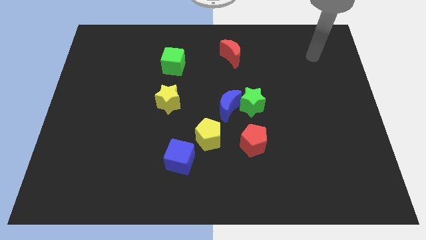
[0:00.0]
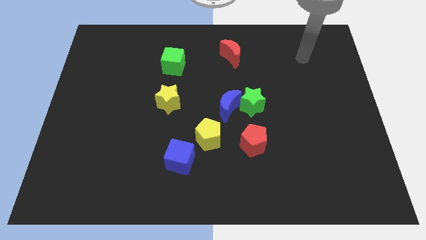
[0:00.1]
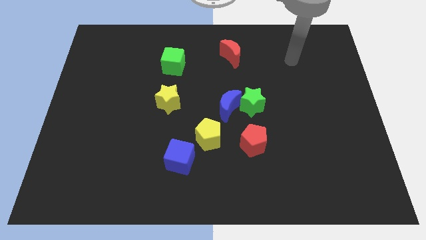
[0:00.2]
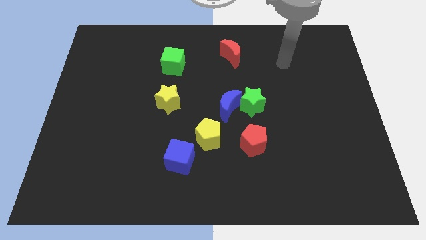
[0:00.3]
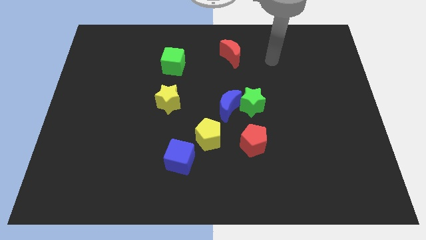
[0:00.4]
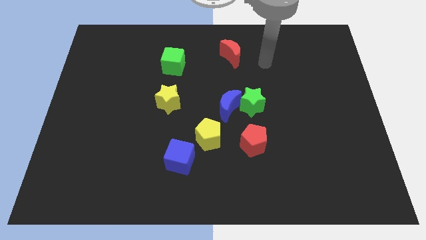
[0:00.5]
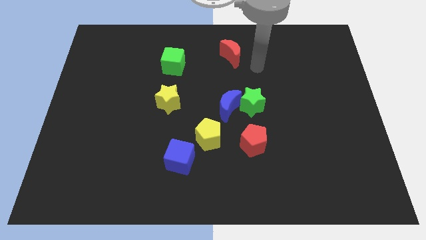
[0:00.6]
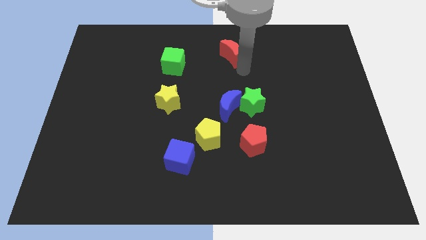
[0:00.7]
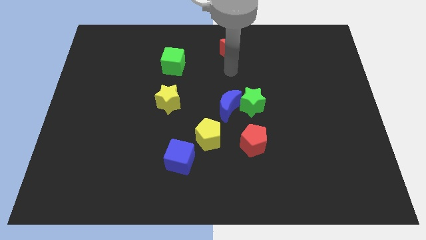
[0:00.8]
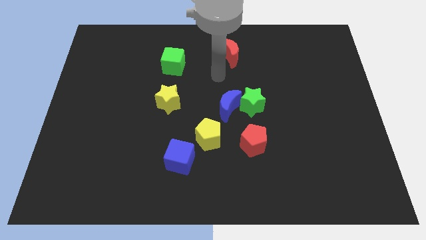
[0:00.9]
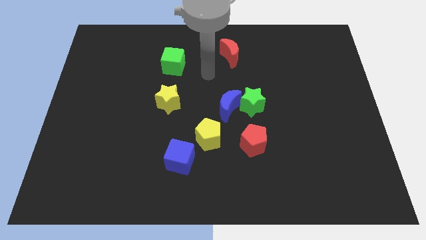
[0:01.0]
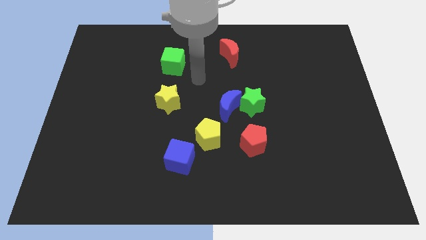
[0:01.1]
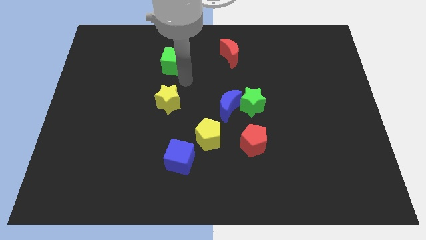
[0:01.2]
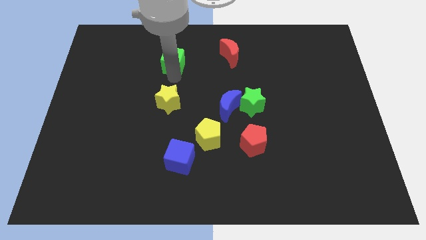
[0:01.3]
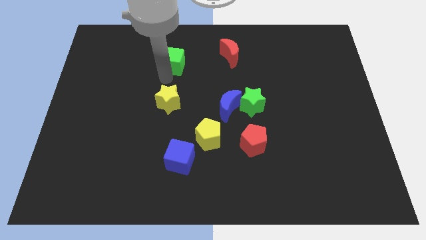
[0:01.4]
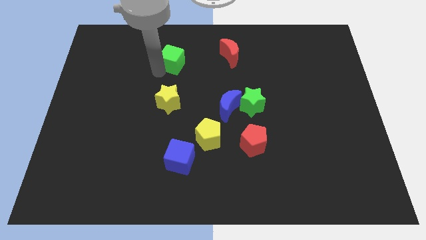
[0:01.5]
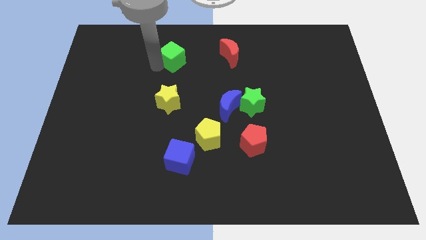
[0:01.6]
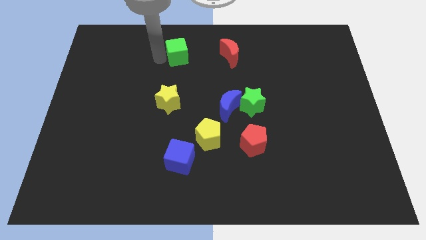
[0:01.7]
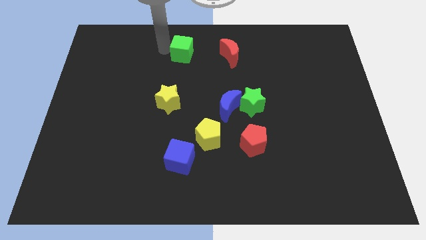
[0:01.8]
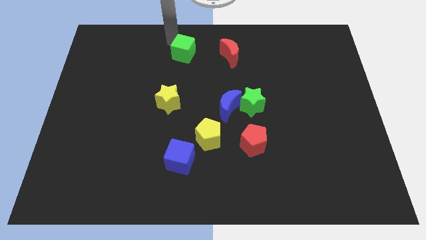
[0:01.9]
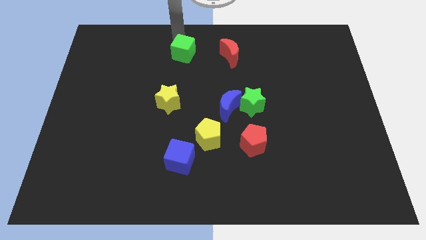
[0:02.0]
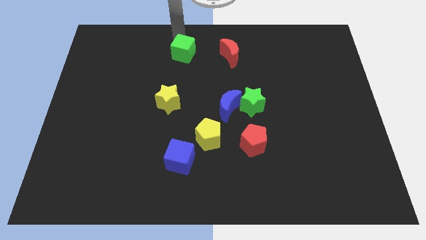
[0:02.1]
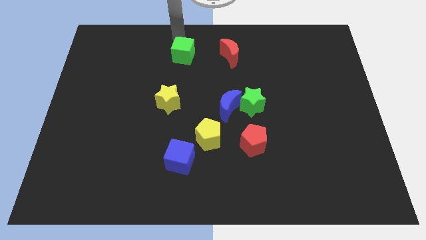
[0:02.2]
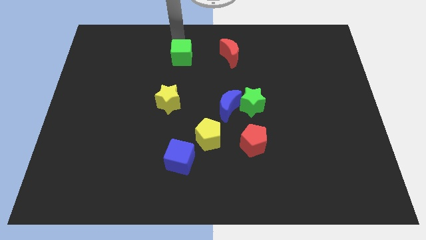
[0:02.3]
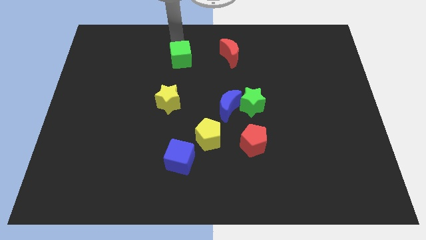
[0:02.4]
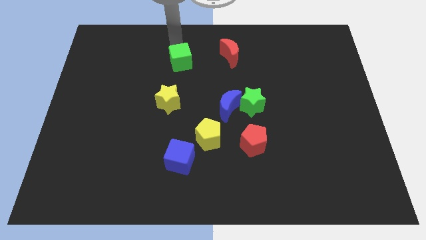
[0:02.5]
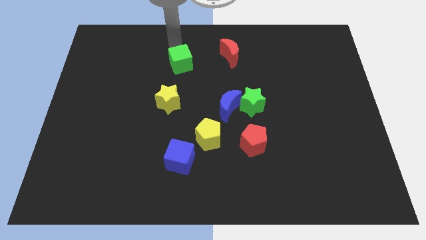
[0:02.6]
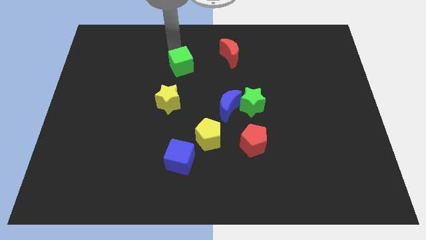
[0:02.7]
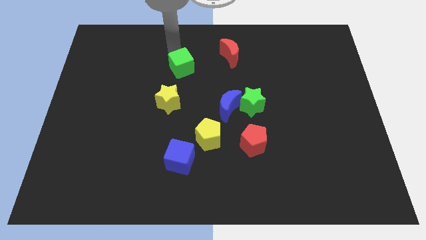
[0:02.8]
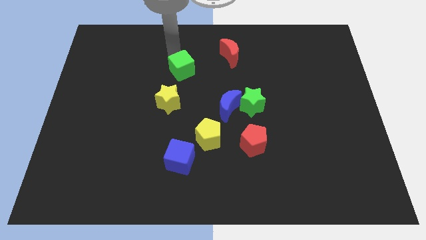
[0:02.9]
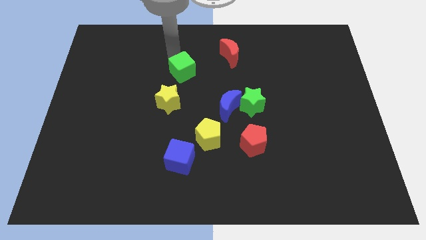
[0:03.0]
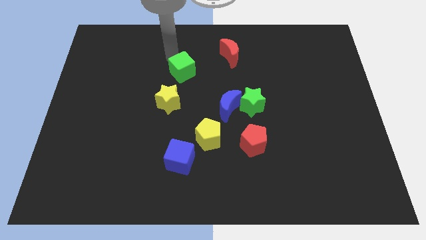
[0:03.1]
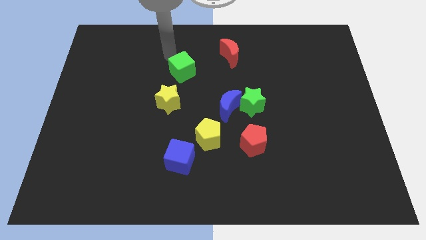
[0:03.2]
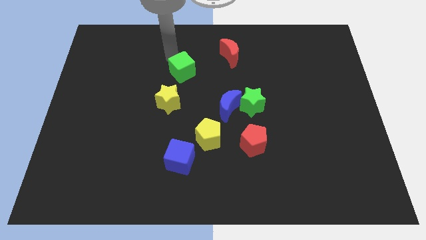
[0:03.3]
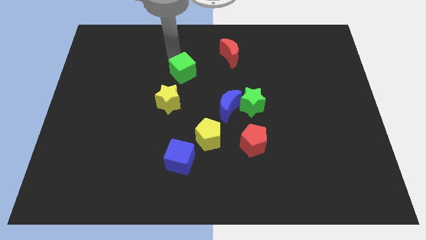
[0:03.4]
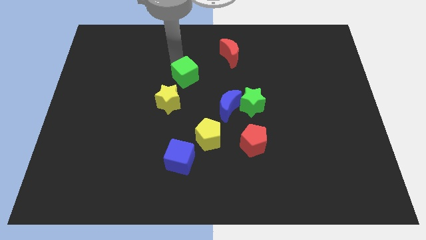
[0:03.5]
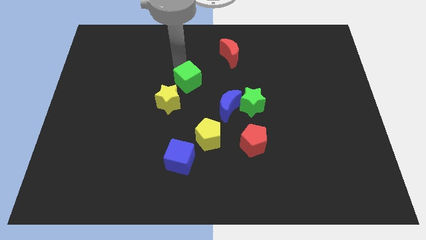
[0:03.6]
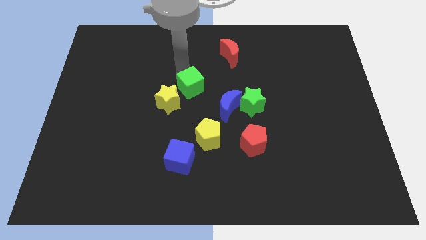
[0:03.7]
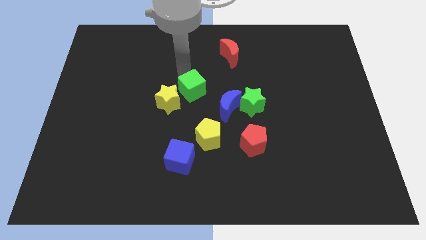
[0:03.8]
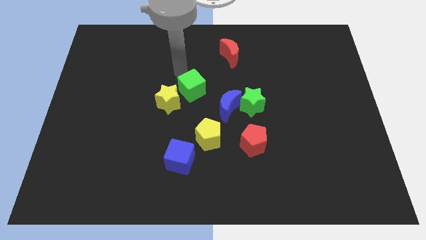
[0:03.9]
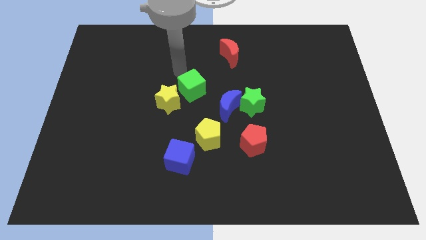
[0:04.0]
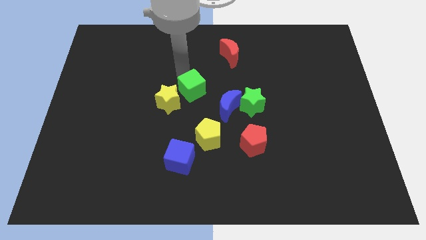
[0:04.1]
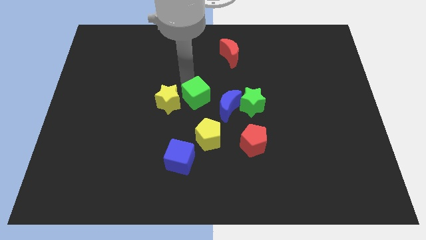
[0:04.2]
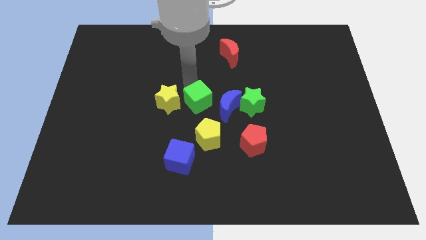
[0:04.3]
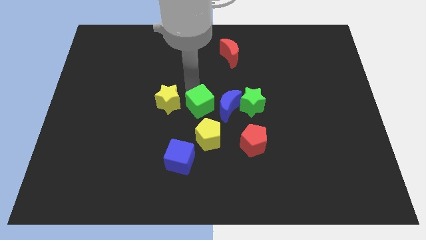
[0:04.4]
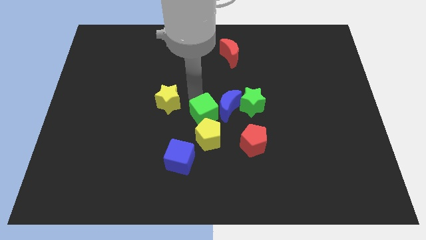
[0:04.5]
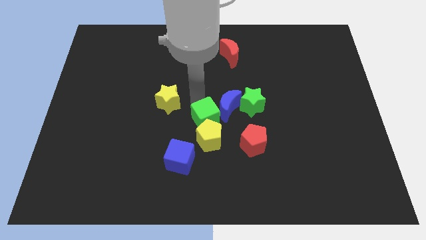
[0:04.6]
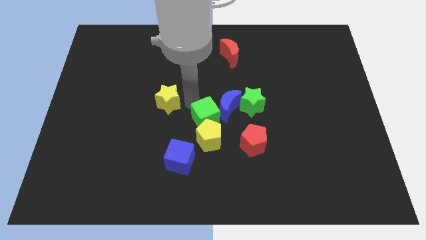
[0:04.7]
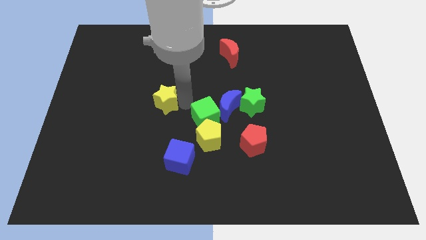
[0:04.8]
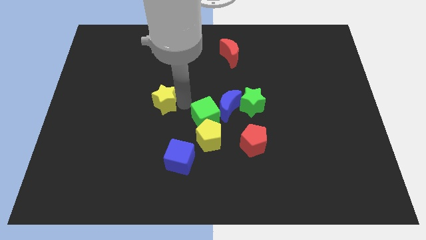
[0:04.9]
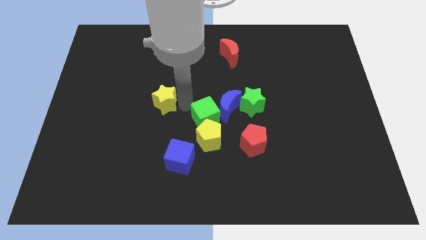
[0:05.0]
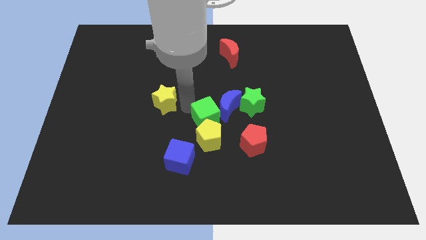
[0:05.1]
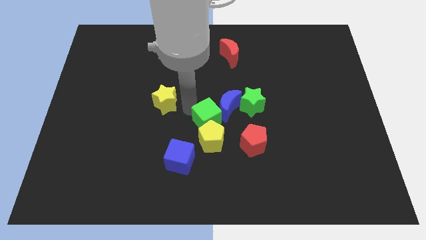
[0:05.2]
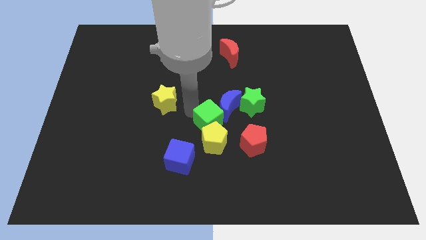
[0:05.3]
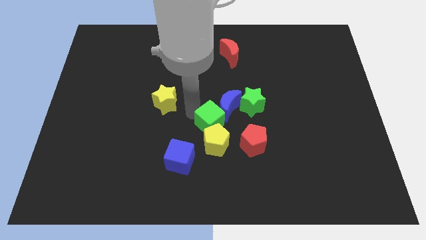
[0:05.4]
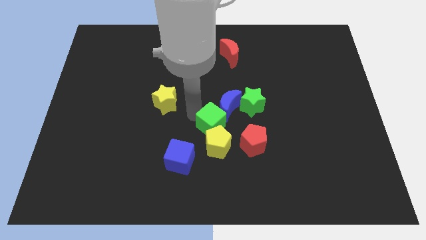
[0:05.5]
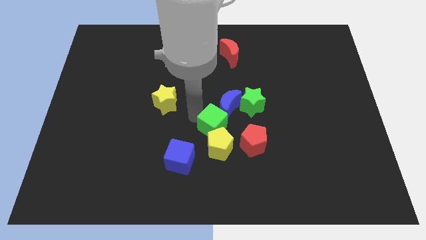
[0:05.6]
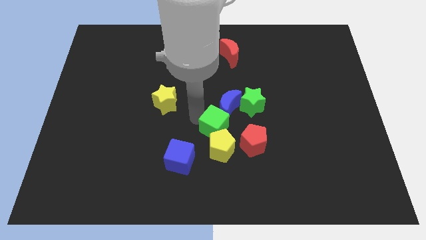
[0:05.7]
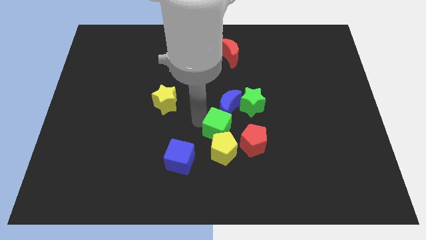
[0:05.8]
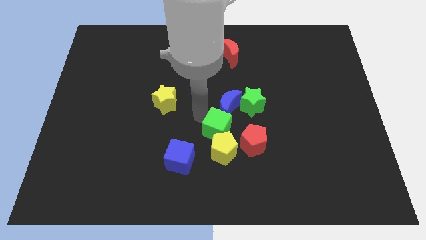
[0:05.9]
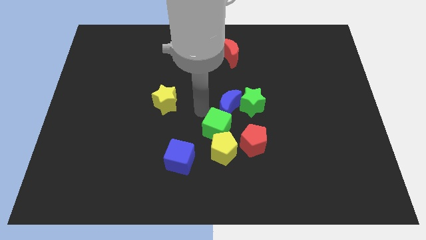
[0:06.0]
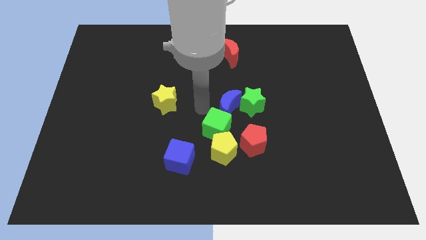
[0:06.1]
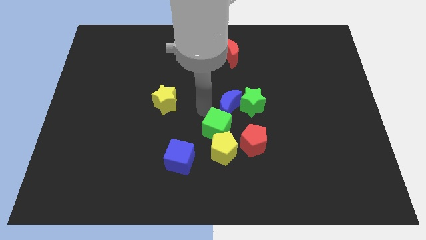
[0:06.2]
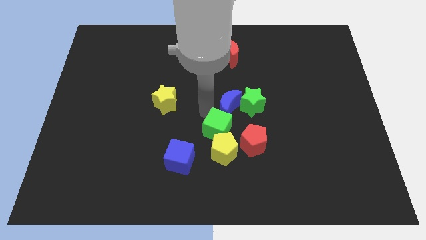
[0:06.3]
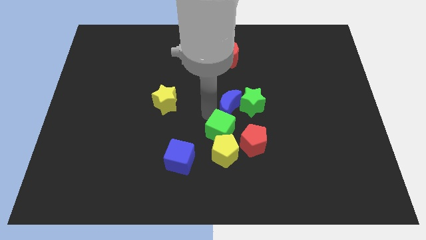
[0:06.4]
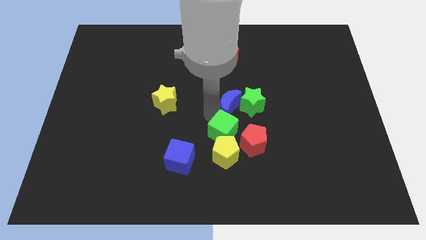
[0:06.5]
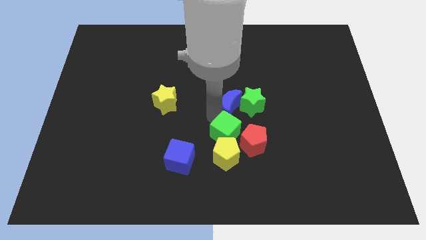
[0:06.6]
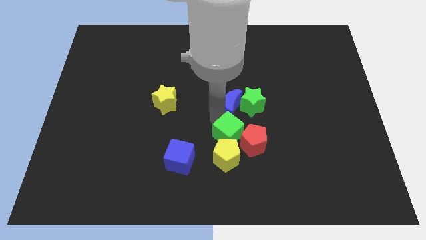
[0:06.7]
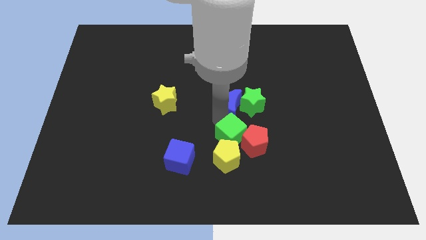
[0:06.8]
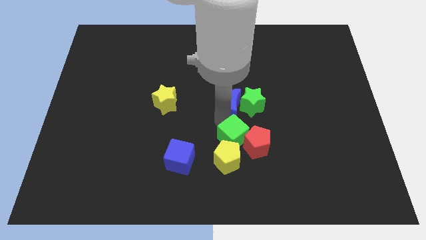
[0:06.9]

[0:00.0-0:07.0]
move the green cube to the bottom side of the green star

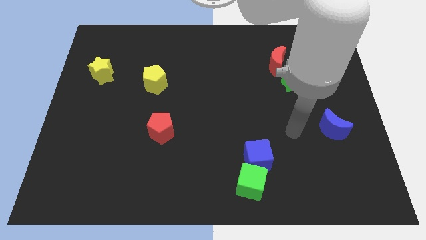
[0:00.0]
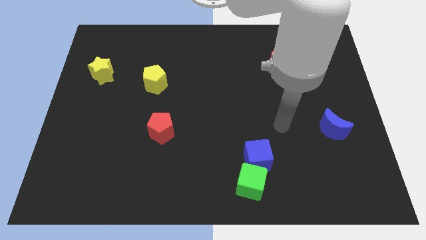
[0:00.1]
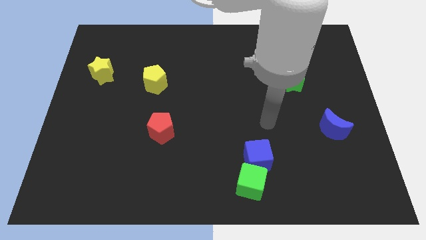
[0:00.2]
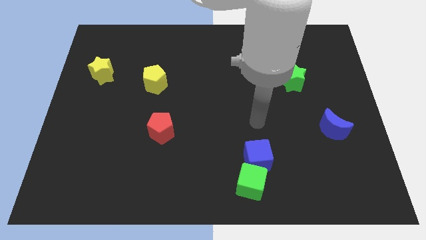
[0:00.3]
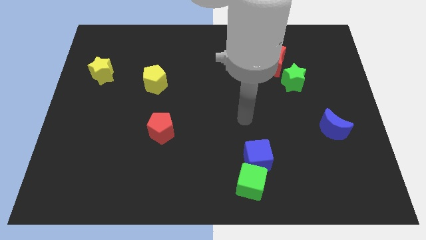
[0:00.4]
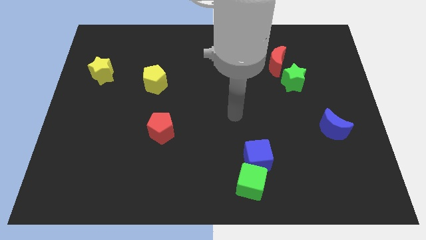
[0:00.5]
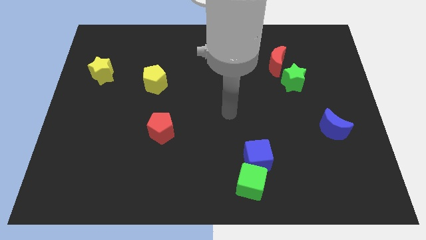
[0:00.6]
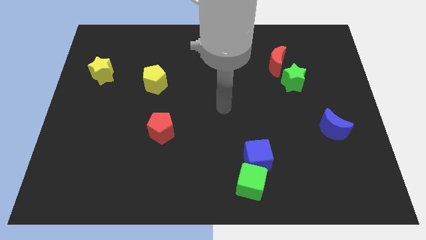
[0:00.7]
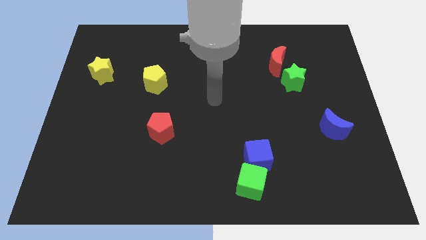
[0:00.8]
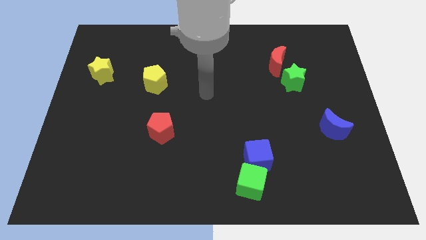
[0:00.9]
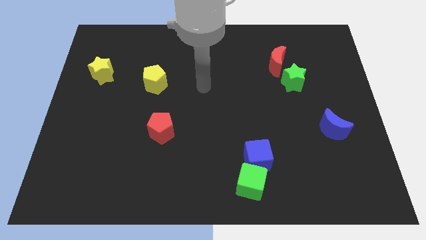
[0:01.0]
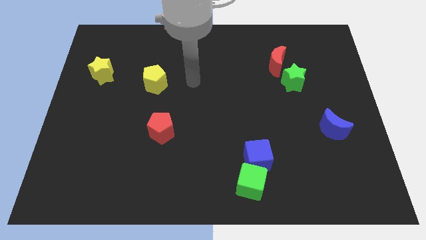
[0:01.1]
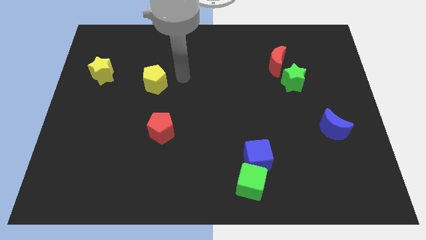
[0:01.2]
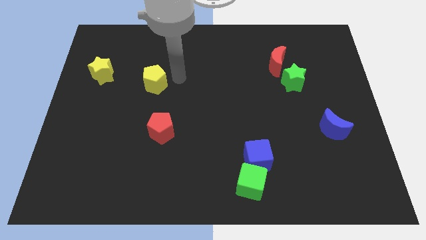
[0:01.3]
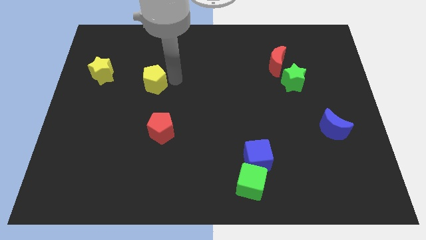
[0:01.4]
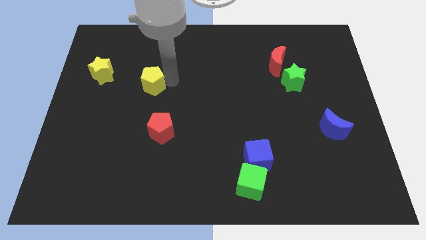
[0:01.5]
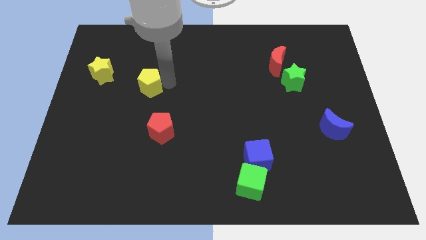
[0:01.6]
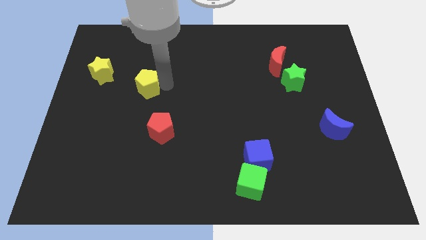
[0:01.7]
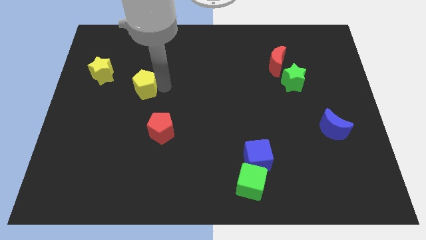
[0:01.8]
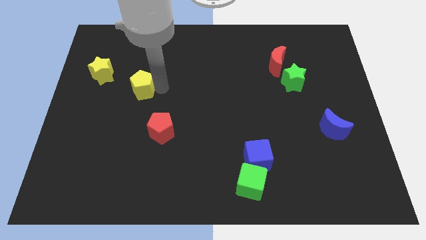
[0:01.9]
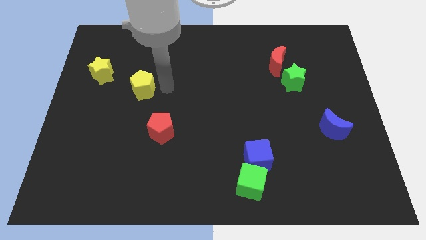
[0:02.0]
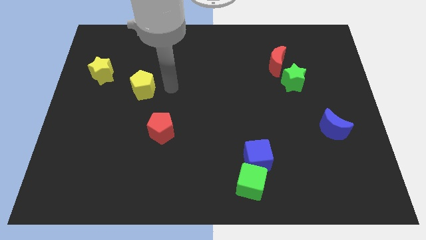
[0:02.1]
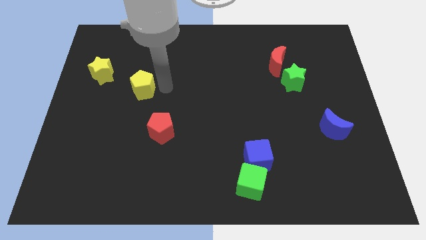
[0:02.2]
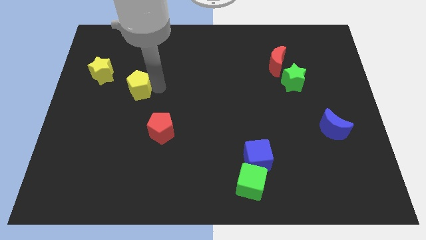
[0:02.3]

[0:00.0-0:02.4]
push the yellow pentagon to the bottom right side of the yellow star
